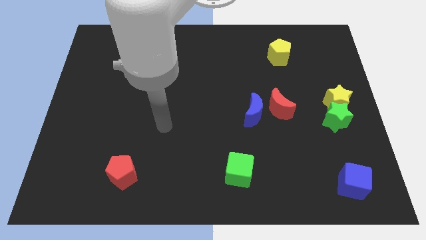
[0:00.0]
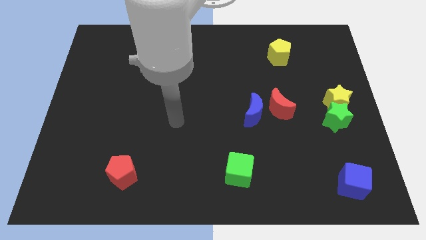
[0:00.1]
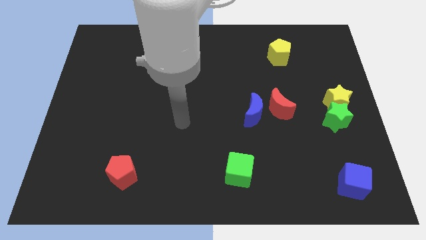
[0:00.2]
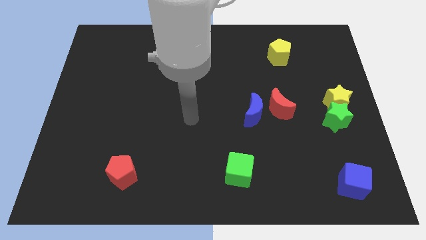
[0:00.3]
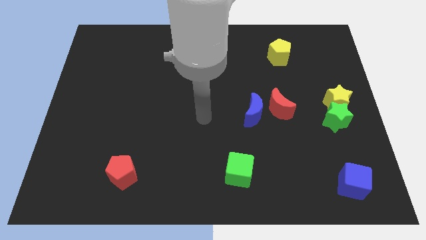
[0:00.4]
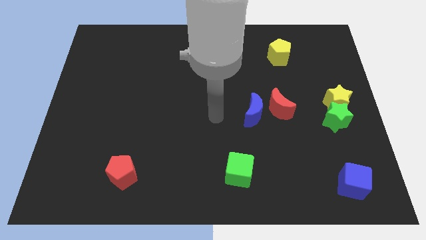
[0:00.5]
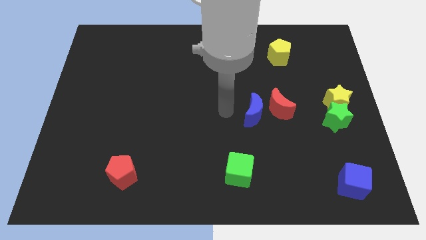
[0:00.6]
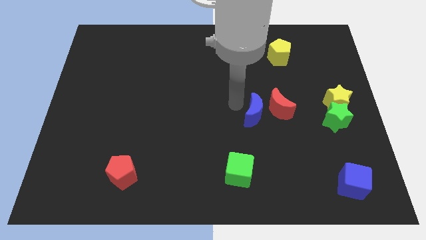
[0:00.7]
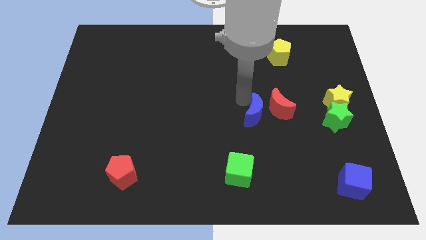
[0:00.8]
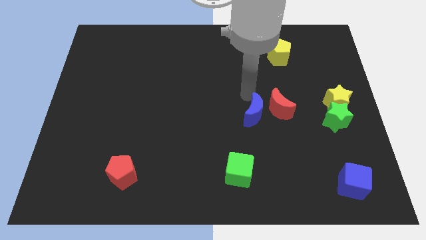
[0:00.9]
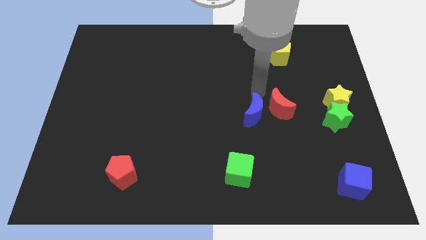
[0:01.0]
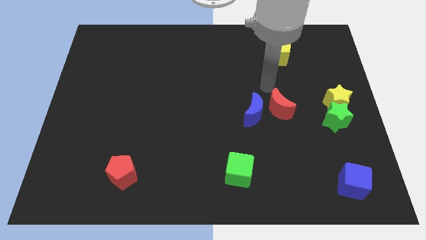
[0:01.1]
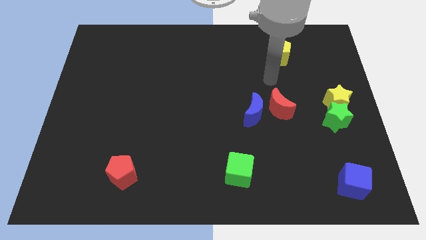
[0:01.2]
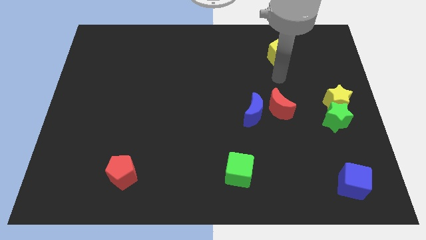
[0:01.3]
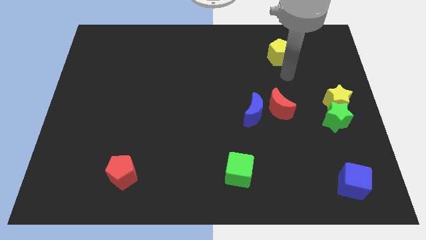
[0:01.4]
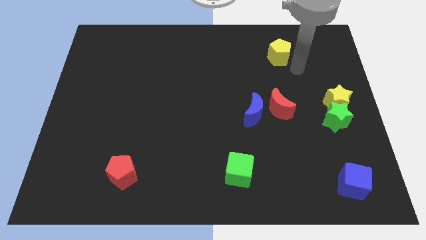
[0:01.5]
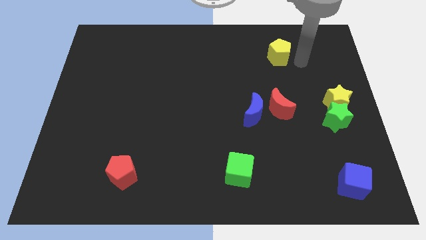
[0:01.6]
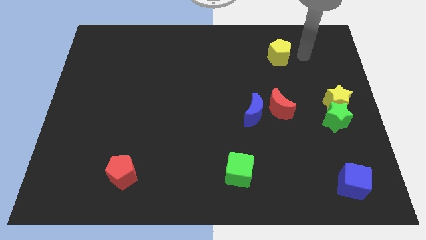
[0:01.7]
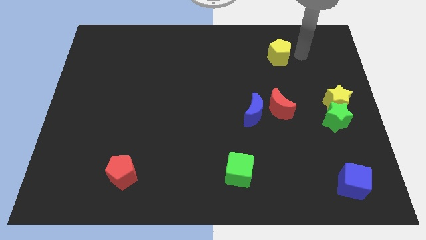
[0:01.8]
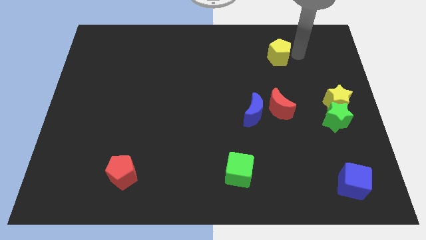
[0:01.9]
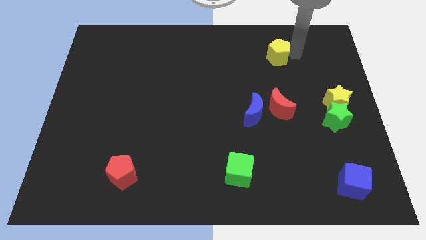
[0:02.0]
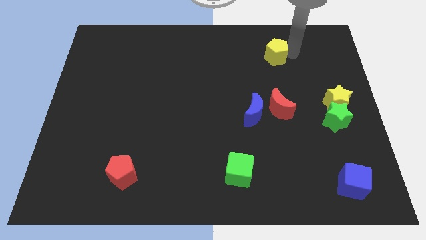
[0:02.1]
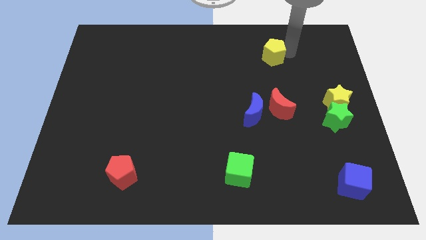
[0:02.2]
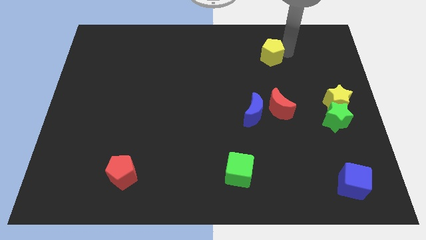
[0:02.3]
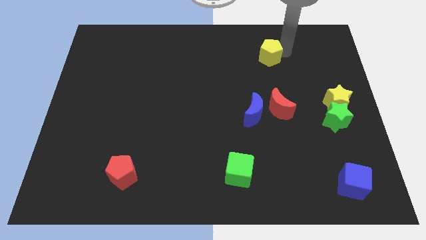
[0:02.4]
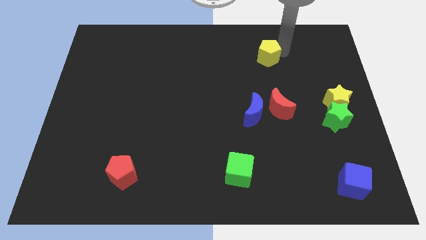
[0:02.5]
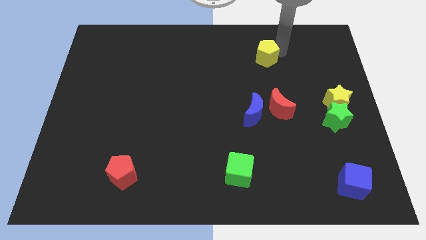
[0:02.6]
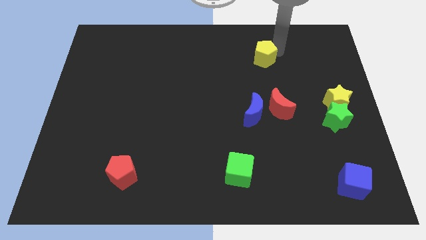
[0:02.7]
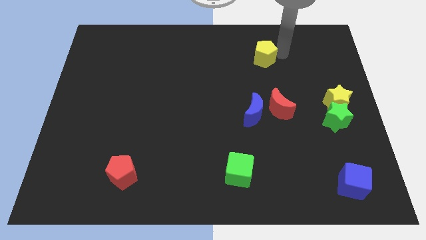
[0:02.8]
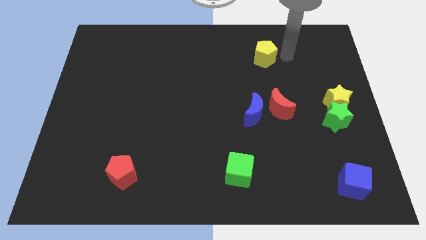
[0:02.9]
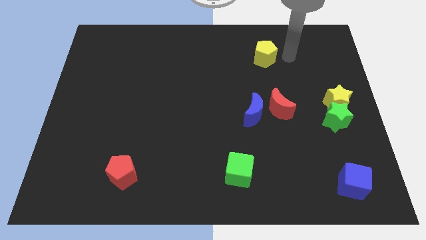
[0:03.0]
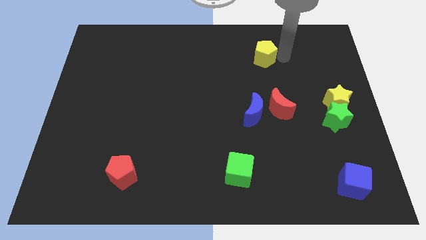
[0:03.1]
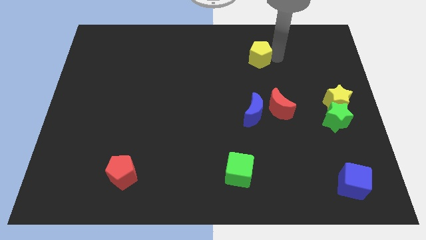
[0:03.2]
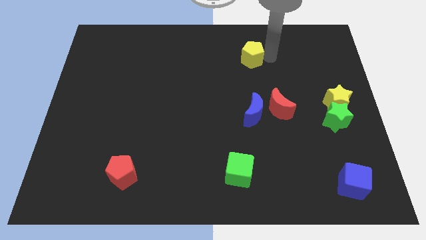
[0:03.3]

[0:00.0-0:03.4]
slide the yellow pentagon left a little

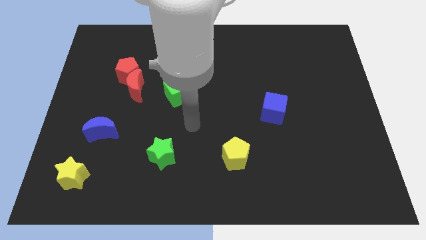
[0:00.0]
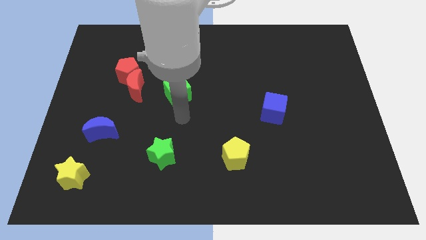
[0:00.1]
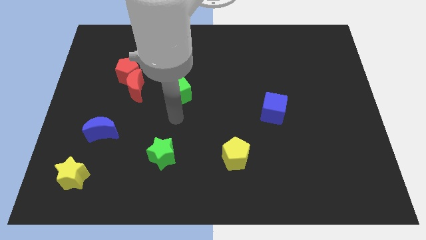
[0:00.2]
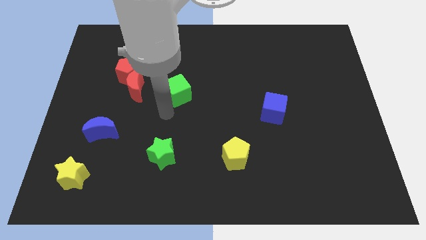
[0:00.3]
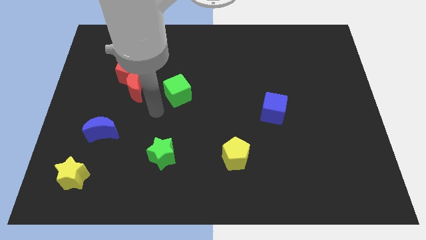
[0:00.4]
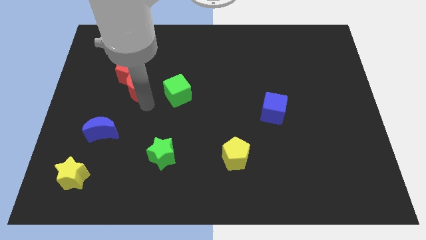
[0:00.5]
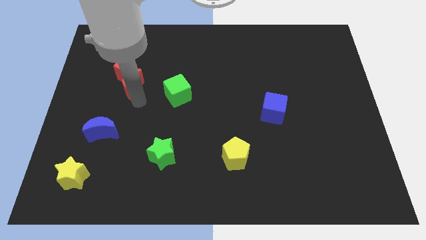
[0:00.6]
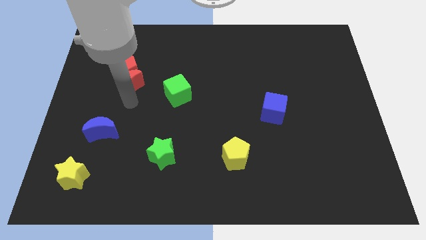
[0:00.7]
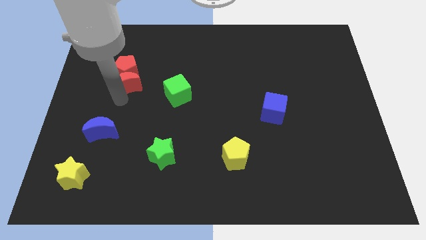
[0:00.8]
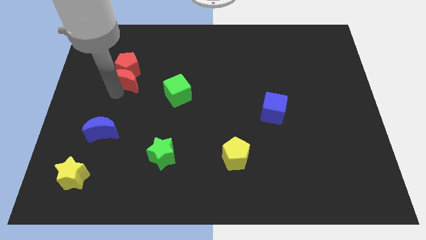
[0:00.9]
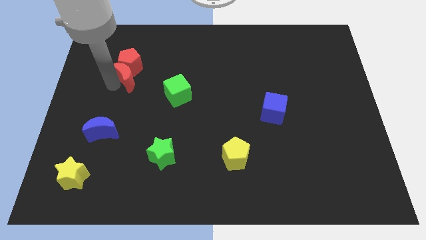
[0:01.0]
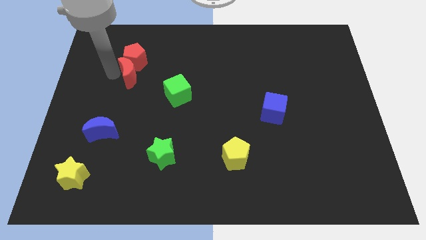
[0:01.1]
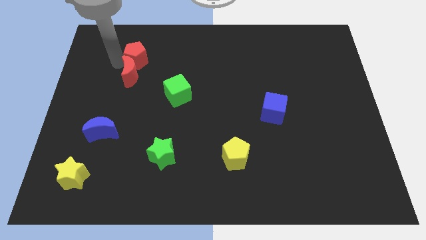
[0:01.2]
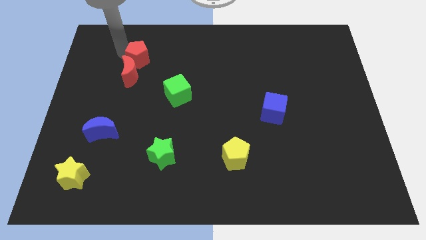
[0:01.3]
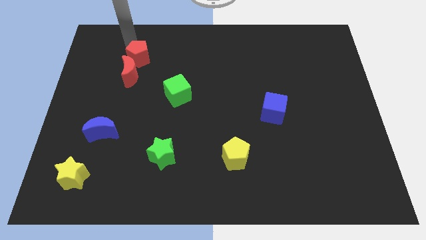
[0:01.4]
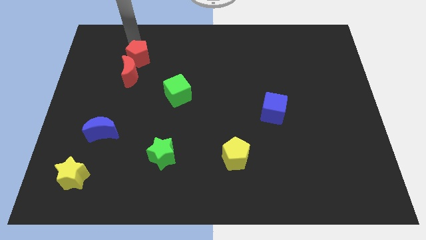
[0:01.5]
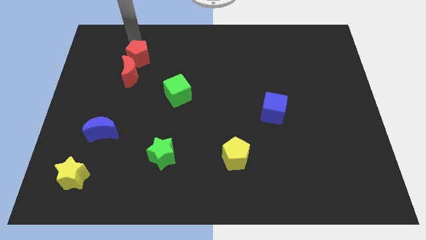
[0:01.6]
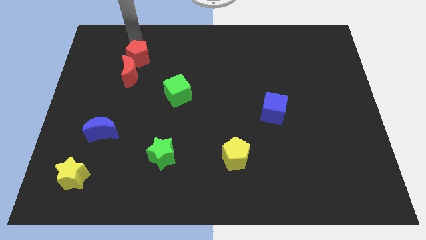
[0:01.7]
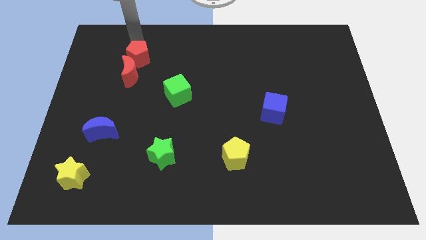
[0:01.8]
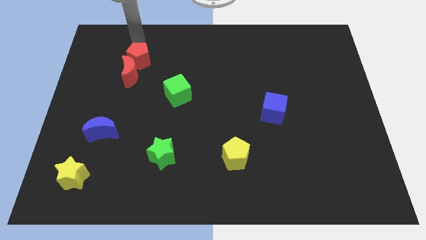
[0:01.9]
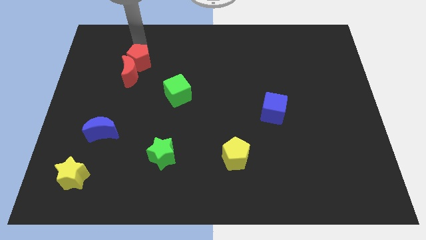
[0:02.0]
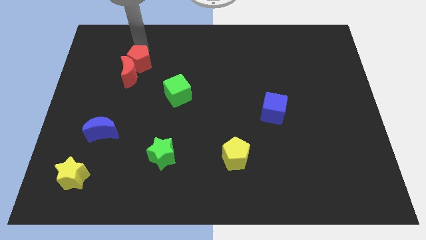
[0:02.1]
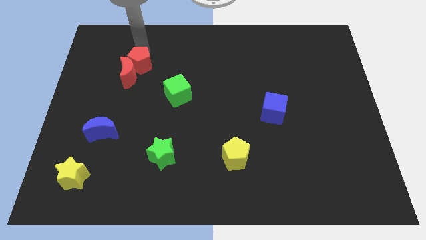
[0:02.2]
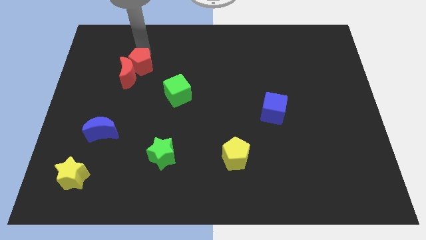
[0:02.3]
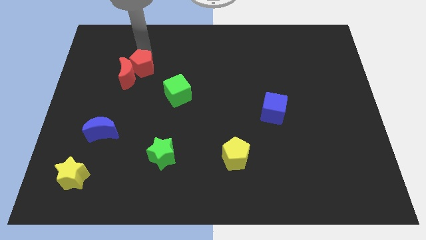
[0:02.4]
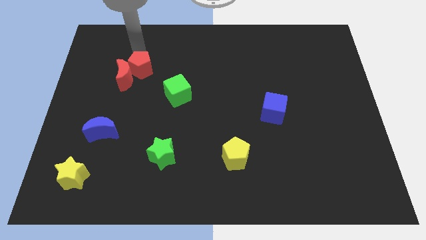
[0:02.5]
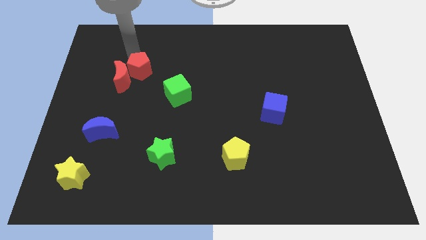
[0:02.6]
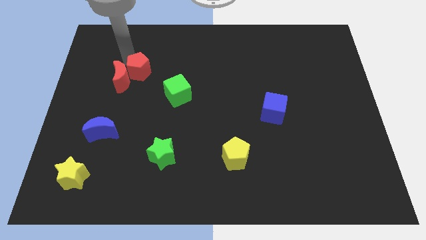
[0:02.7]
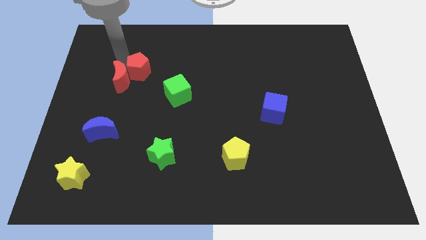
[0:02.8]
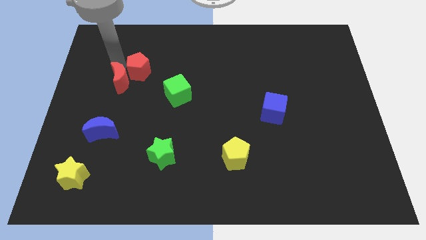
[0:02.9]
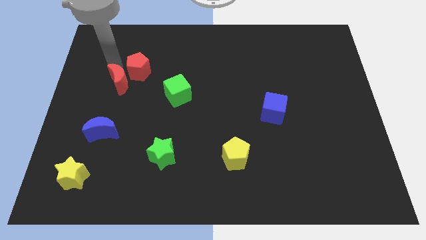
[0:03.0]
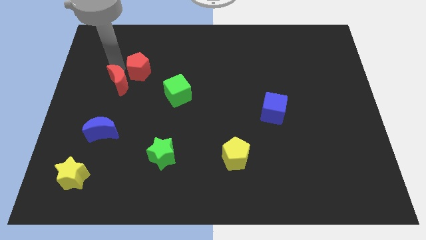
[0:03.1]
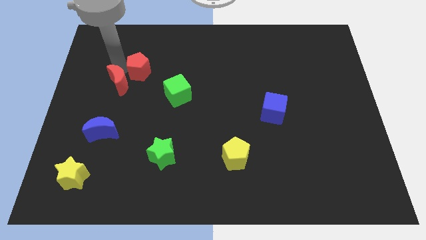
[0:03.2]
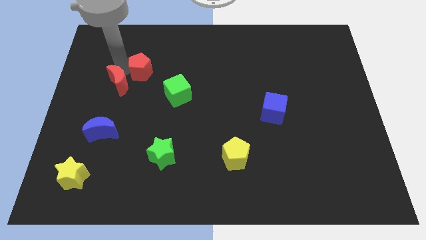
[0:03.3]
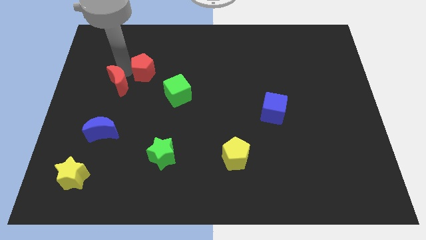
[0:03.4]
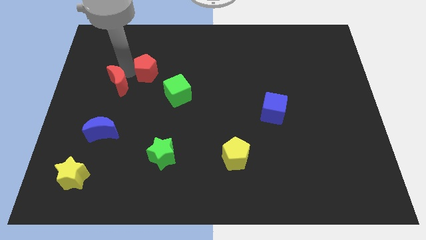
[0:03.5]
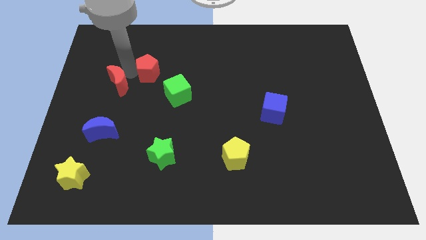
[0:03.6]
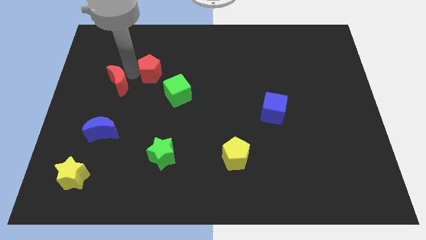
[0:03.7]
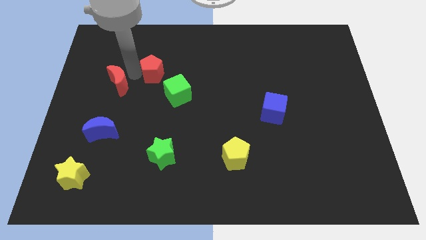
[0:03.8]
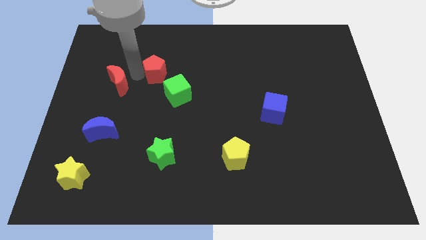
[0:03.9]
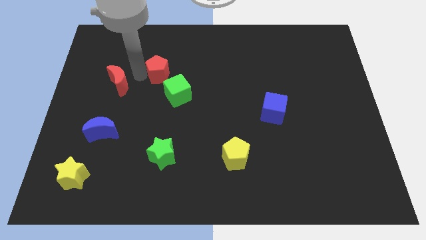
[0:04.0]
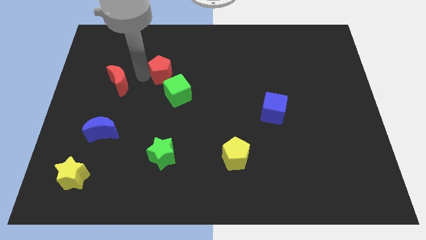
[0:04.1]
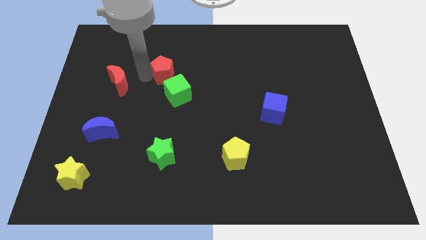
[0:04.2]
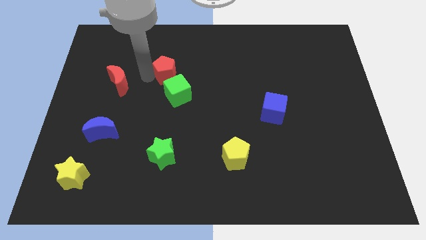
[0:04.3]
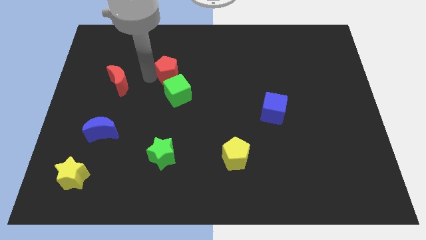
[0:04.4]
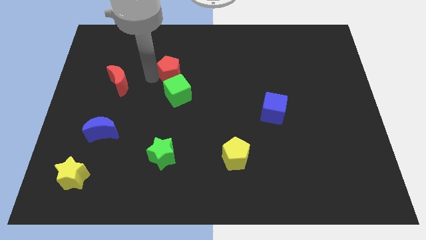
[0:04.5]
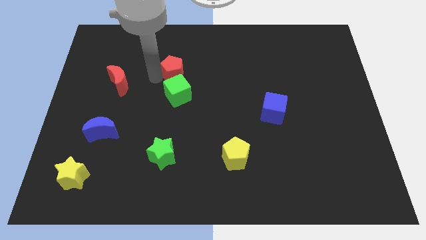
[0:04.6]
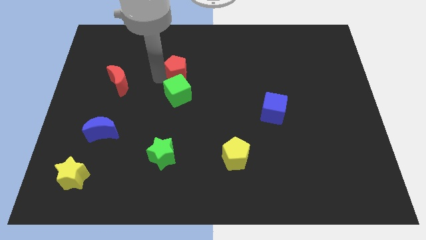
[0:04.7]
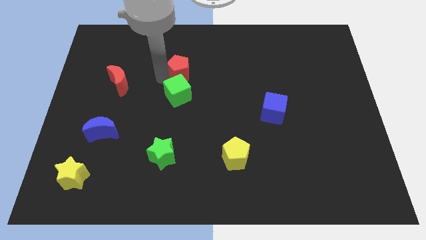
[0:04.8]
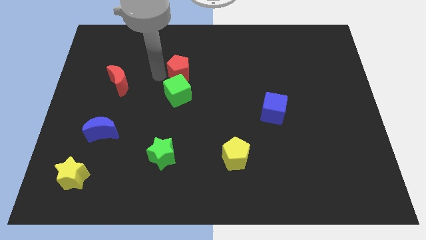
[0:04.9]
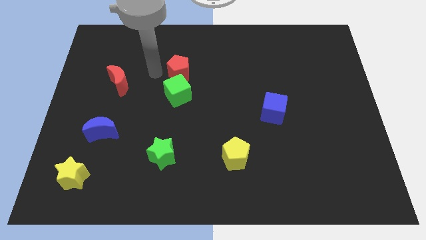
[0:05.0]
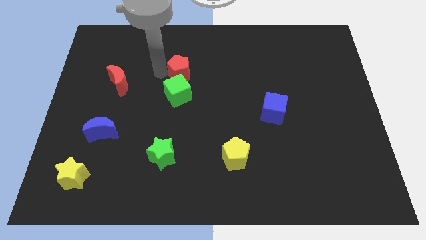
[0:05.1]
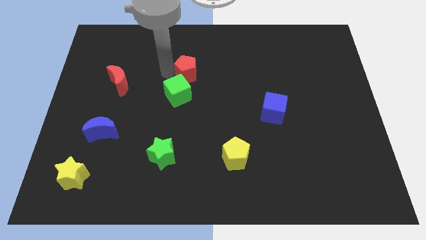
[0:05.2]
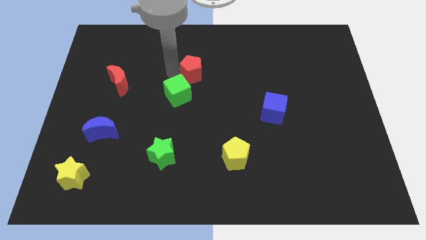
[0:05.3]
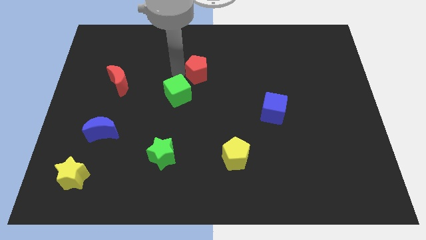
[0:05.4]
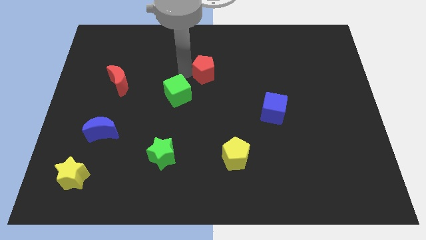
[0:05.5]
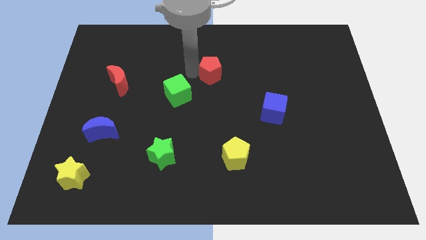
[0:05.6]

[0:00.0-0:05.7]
slide the red pentagon to the right
